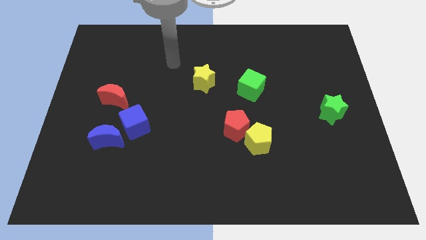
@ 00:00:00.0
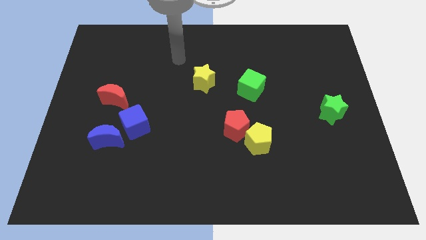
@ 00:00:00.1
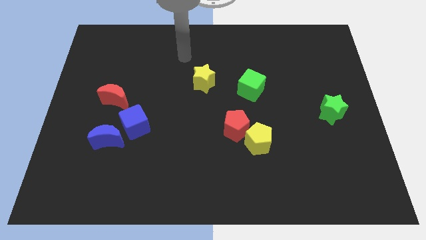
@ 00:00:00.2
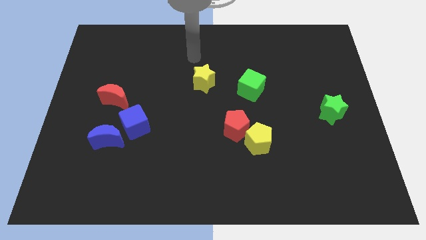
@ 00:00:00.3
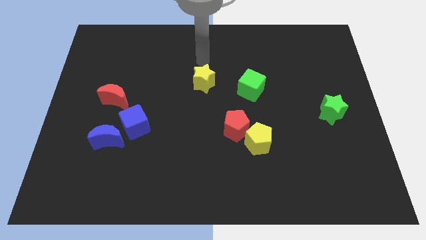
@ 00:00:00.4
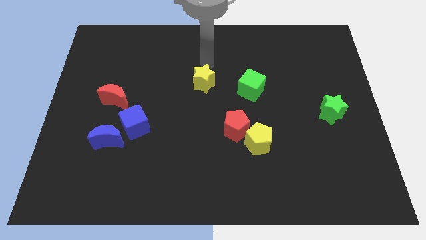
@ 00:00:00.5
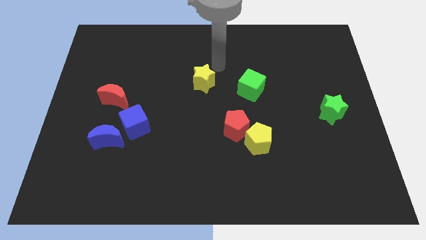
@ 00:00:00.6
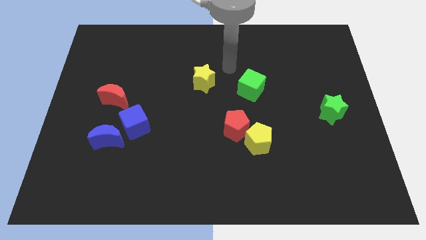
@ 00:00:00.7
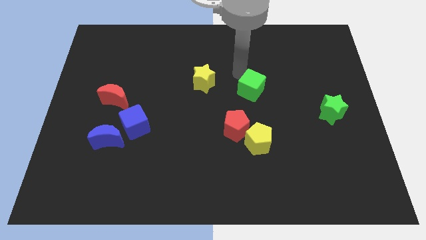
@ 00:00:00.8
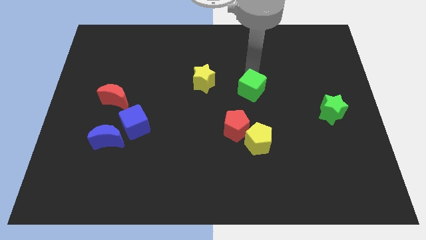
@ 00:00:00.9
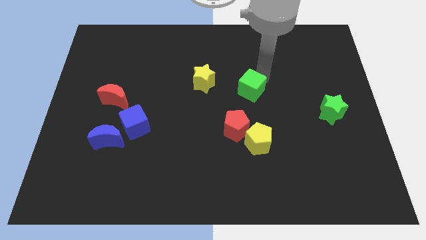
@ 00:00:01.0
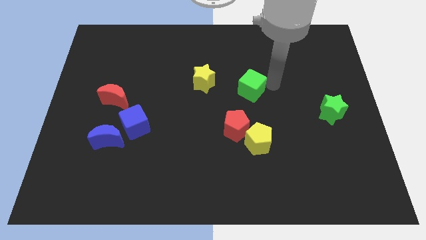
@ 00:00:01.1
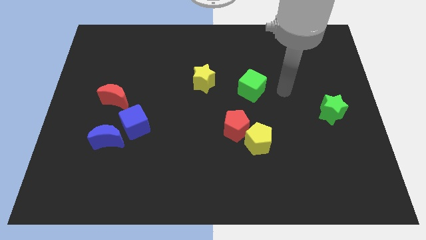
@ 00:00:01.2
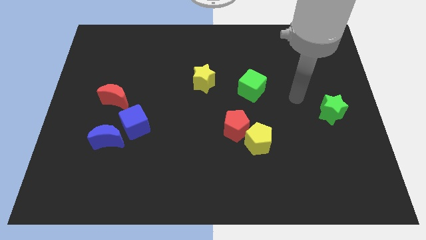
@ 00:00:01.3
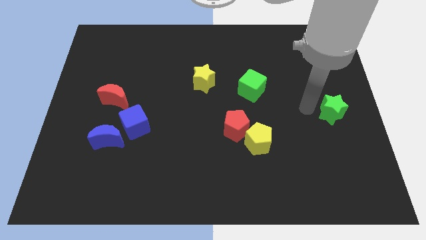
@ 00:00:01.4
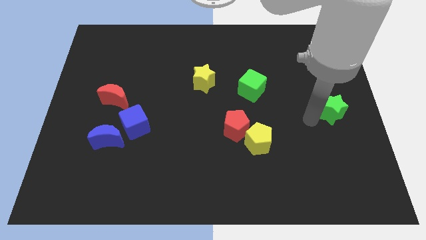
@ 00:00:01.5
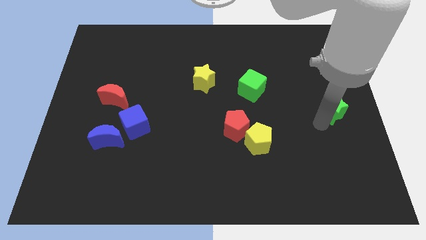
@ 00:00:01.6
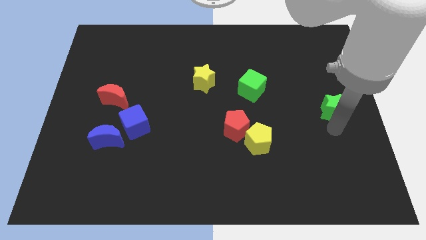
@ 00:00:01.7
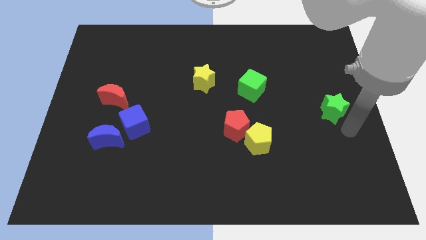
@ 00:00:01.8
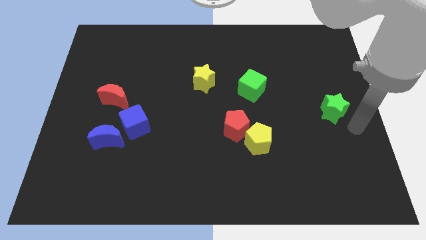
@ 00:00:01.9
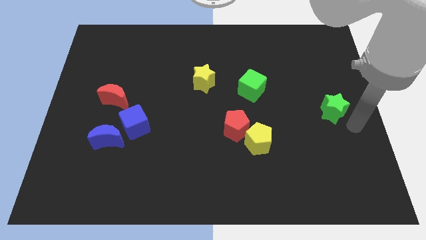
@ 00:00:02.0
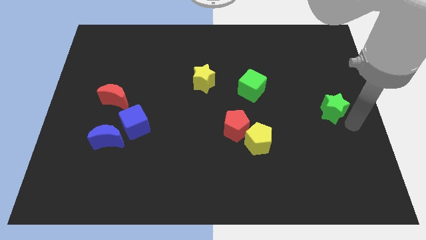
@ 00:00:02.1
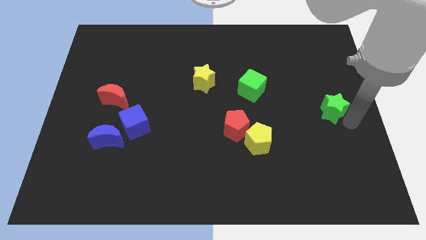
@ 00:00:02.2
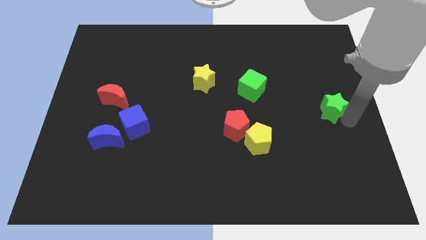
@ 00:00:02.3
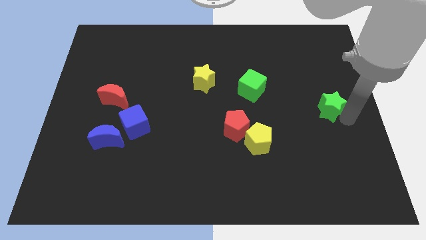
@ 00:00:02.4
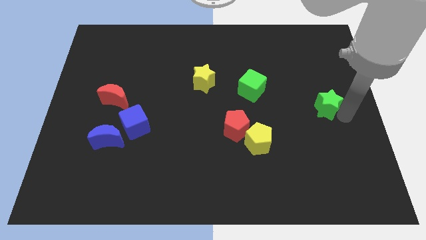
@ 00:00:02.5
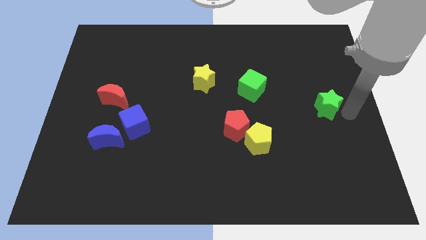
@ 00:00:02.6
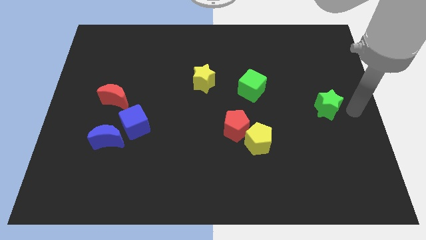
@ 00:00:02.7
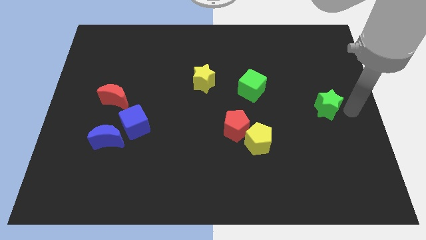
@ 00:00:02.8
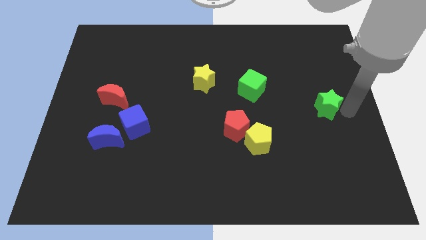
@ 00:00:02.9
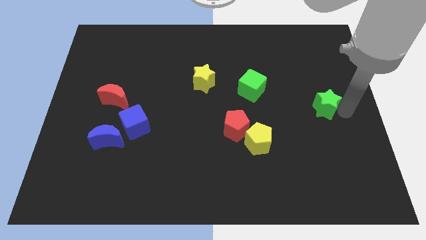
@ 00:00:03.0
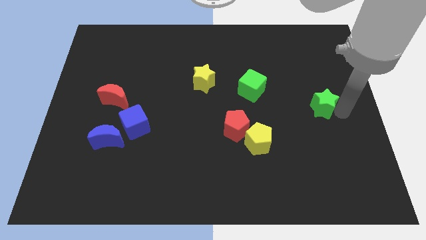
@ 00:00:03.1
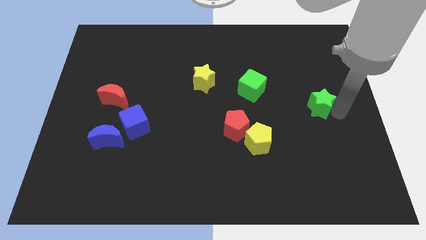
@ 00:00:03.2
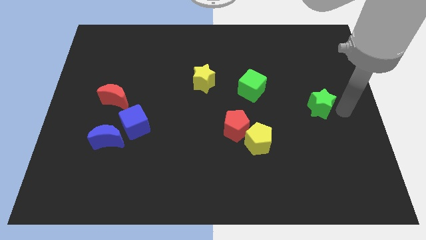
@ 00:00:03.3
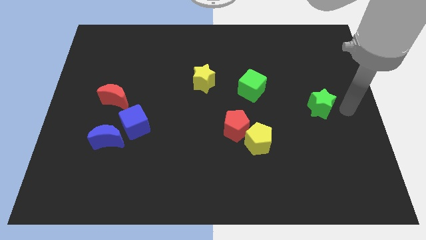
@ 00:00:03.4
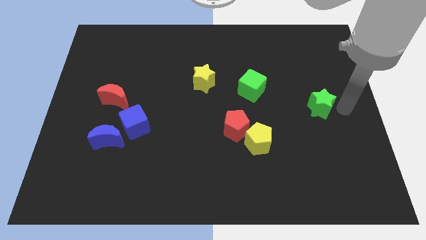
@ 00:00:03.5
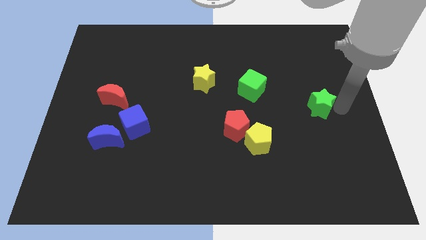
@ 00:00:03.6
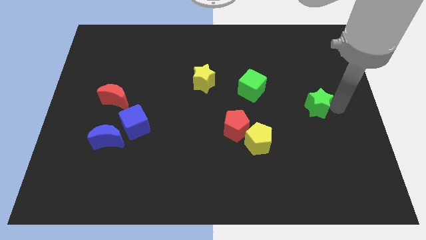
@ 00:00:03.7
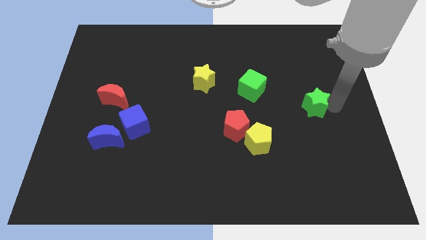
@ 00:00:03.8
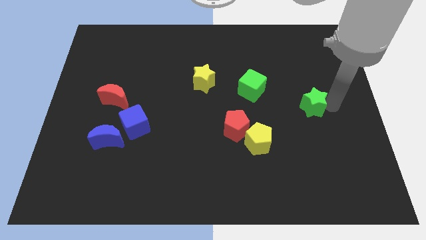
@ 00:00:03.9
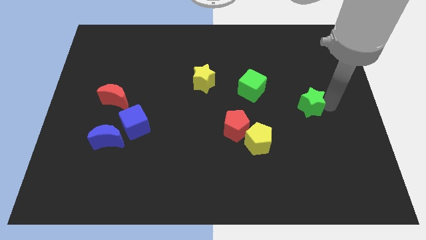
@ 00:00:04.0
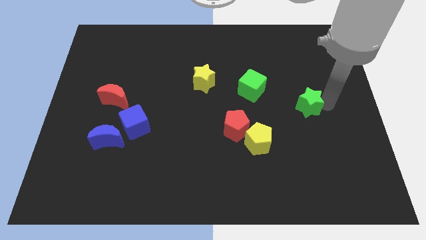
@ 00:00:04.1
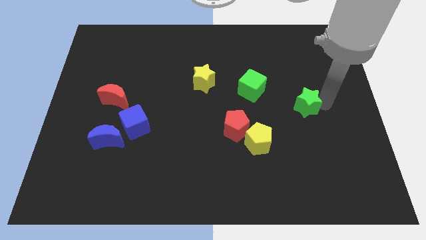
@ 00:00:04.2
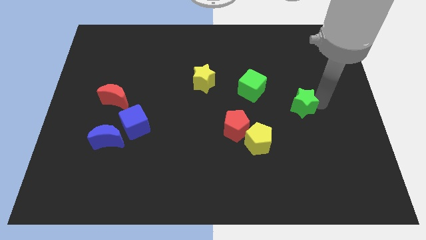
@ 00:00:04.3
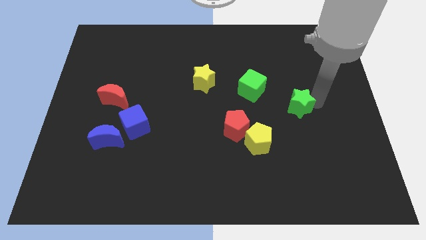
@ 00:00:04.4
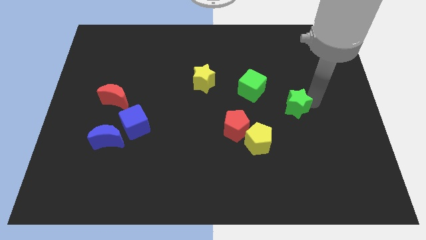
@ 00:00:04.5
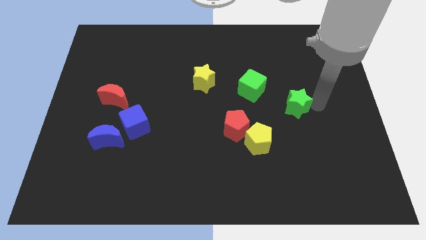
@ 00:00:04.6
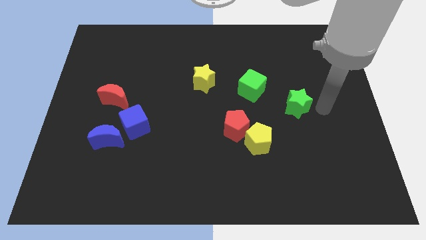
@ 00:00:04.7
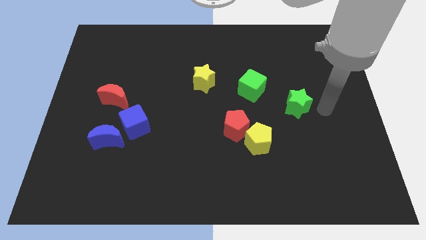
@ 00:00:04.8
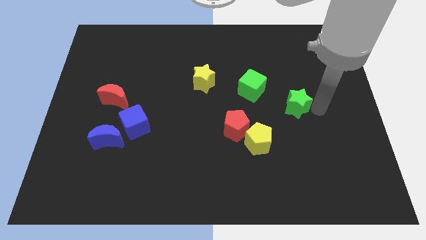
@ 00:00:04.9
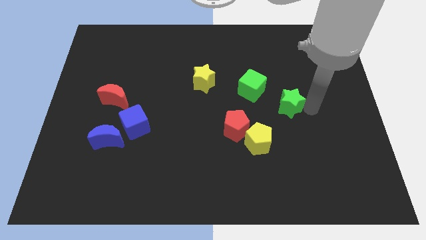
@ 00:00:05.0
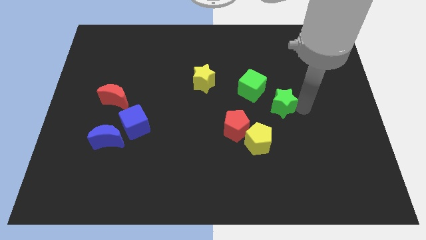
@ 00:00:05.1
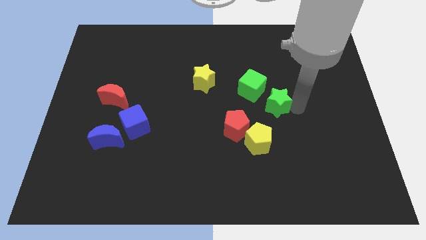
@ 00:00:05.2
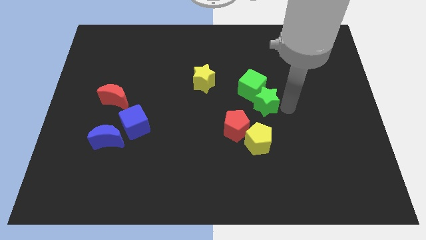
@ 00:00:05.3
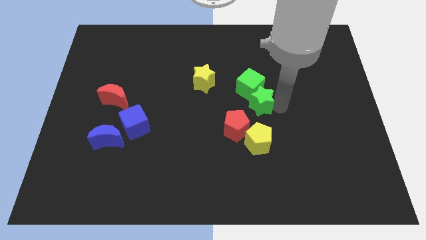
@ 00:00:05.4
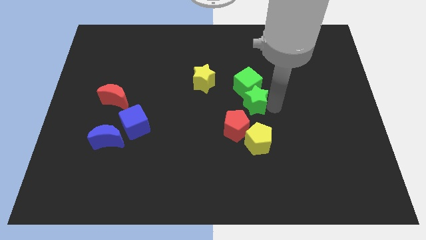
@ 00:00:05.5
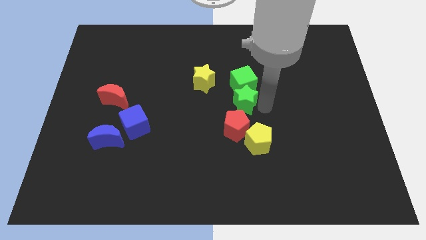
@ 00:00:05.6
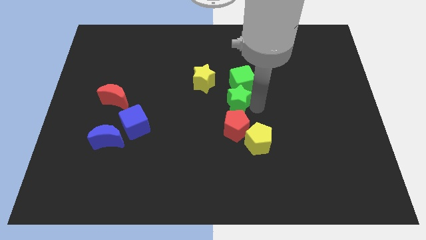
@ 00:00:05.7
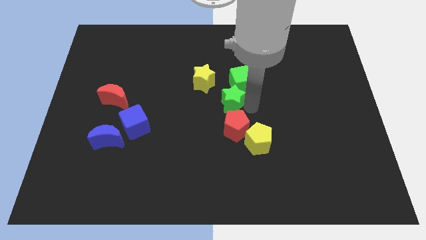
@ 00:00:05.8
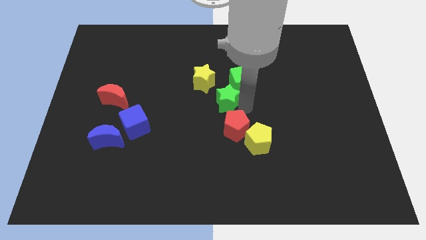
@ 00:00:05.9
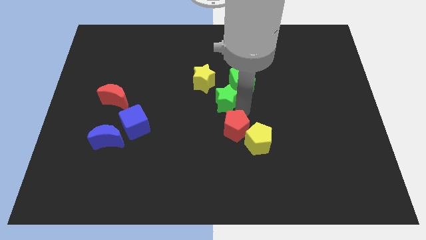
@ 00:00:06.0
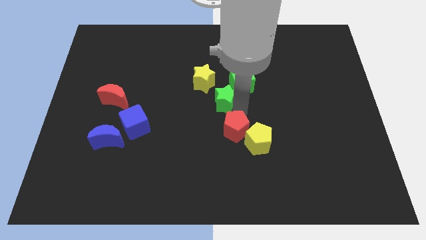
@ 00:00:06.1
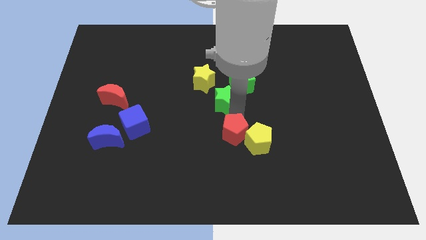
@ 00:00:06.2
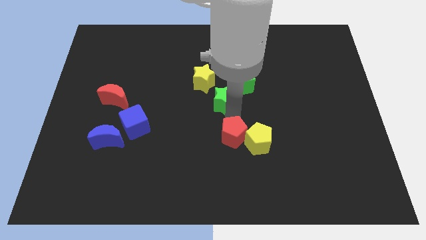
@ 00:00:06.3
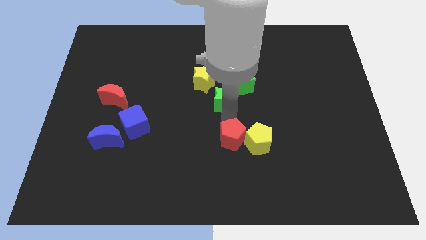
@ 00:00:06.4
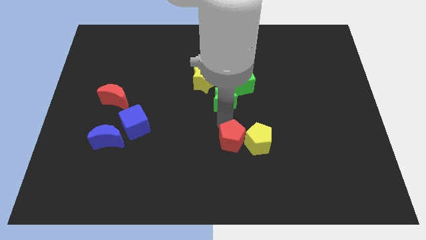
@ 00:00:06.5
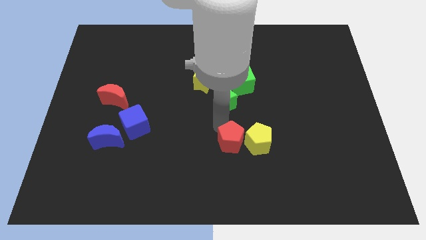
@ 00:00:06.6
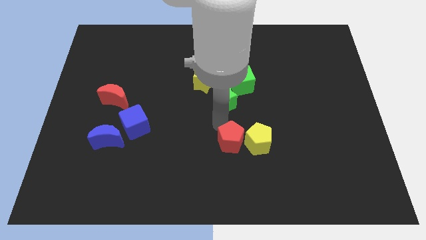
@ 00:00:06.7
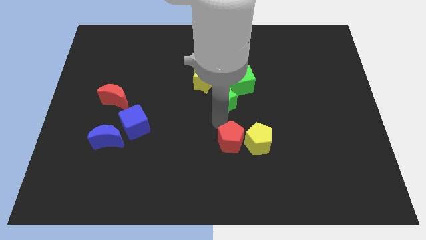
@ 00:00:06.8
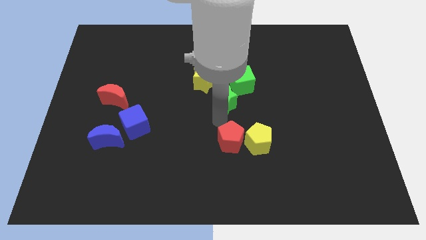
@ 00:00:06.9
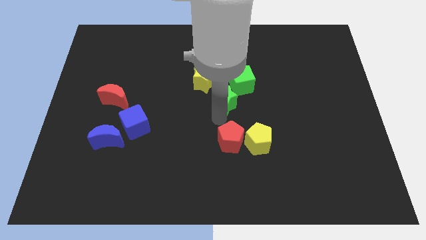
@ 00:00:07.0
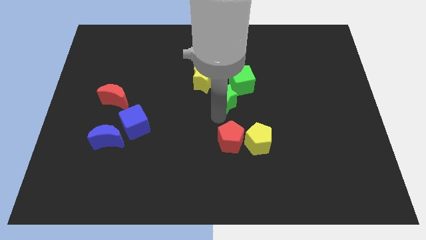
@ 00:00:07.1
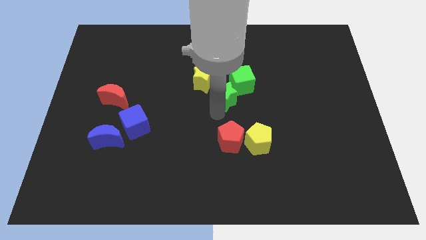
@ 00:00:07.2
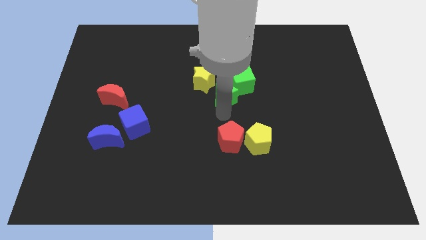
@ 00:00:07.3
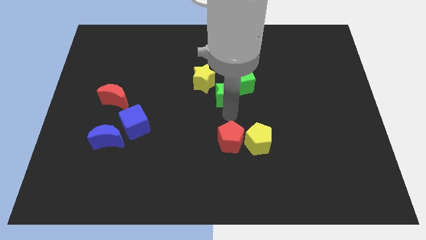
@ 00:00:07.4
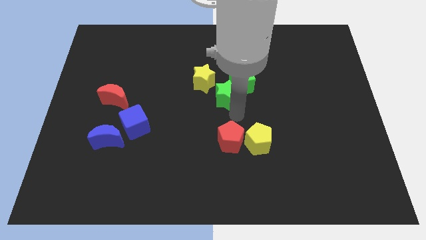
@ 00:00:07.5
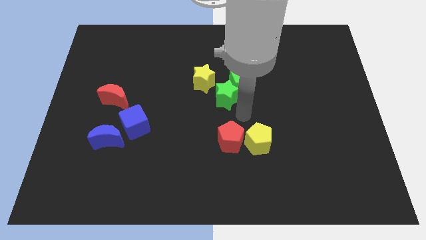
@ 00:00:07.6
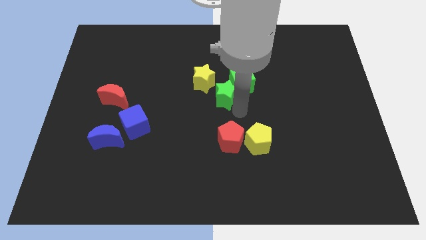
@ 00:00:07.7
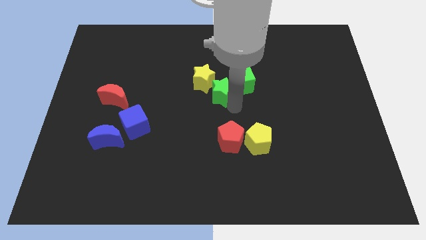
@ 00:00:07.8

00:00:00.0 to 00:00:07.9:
put the green star to the yellow star
